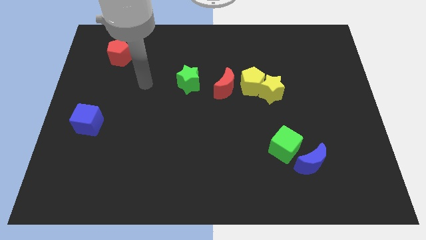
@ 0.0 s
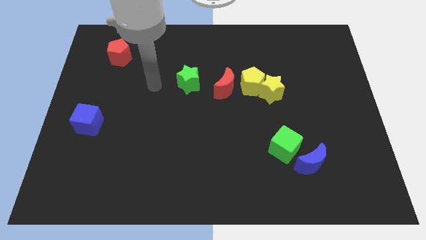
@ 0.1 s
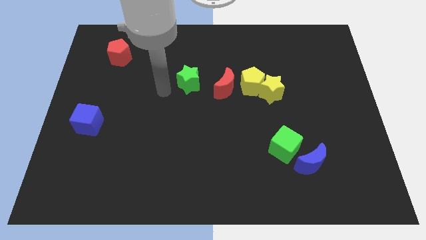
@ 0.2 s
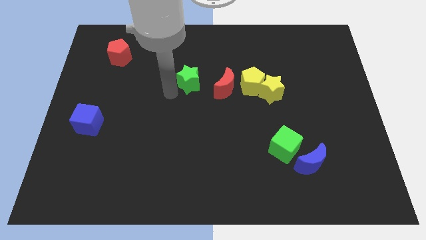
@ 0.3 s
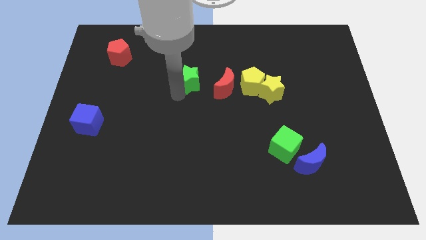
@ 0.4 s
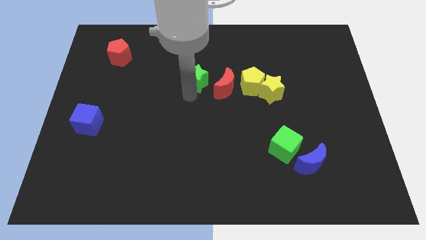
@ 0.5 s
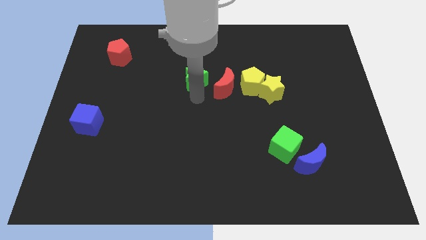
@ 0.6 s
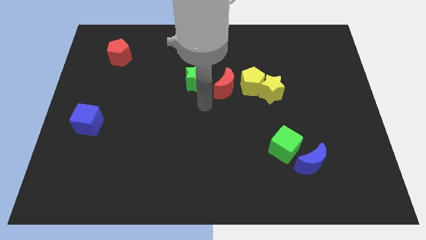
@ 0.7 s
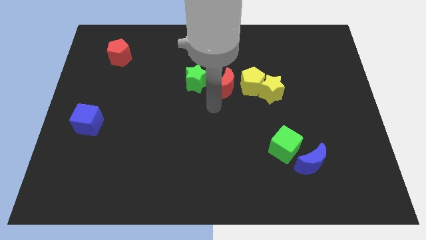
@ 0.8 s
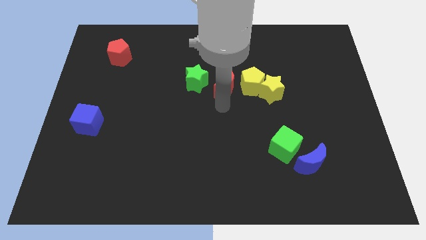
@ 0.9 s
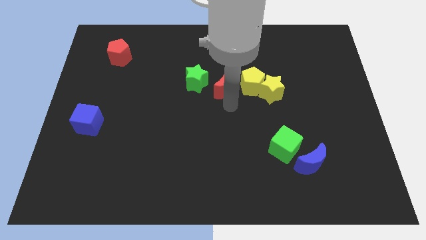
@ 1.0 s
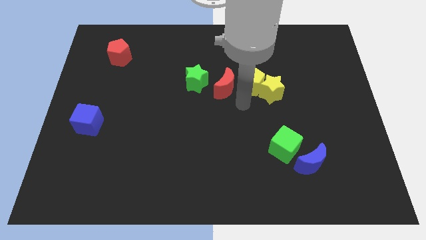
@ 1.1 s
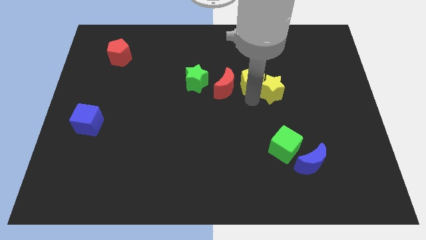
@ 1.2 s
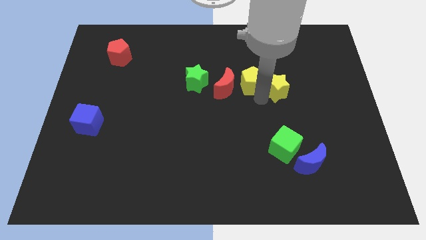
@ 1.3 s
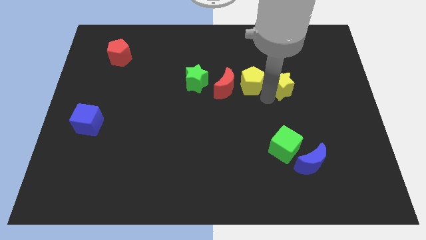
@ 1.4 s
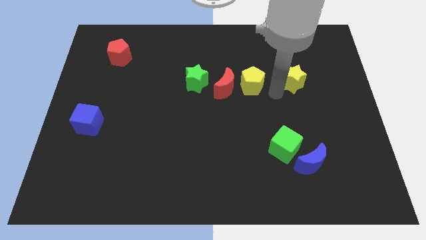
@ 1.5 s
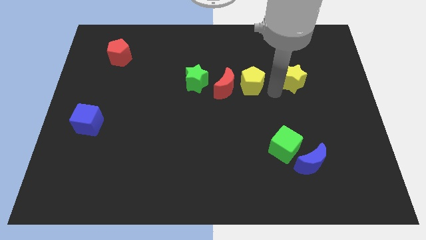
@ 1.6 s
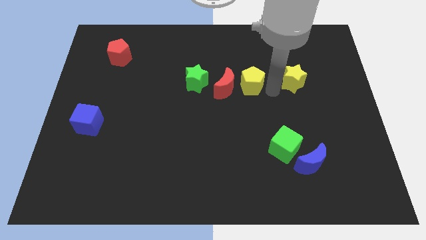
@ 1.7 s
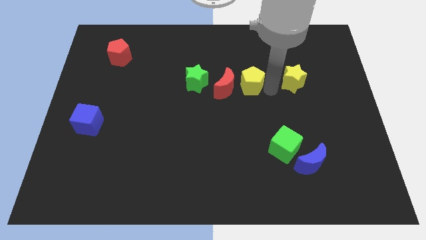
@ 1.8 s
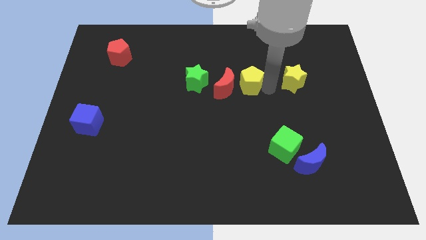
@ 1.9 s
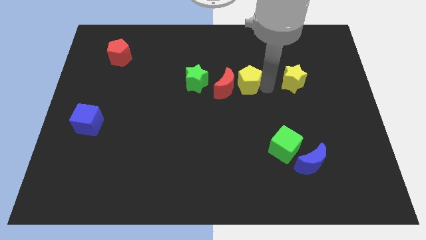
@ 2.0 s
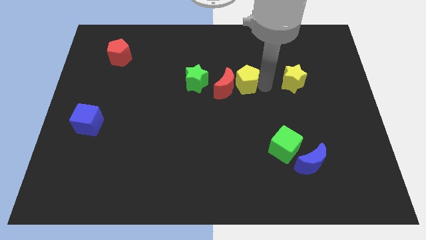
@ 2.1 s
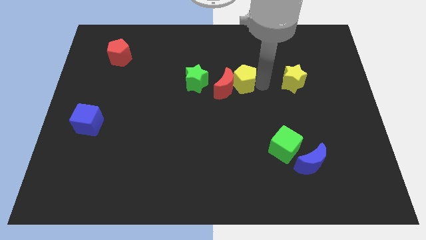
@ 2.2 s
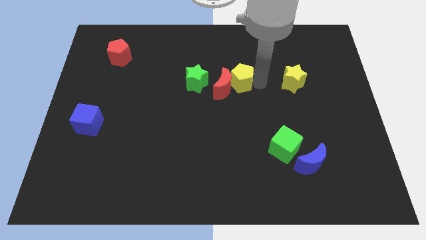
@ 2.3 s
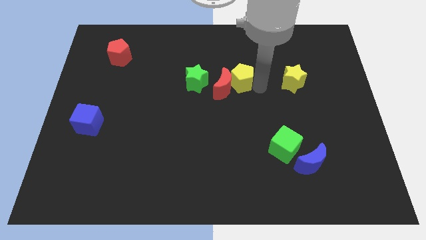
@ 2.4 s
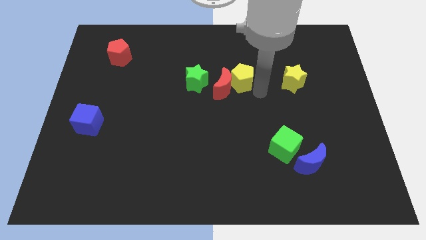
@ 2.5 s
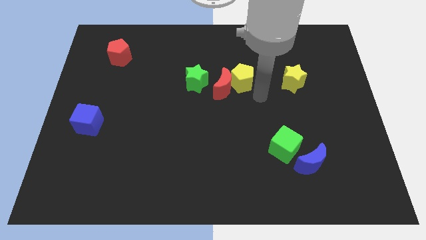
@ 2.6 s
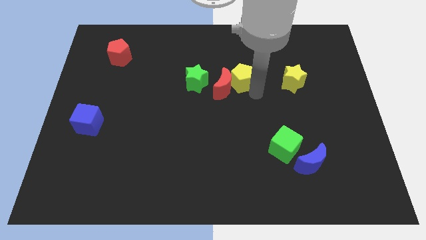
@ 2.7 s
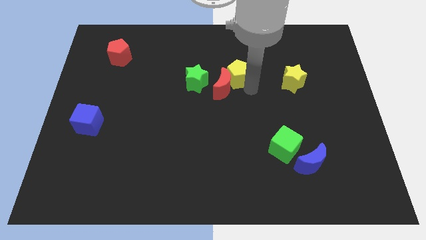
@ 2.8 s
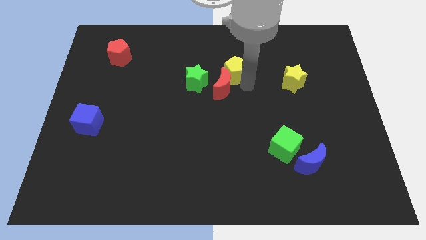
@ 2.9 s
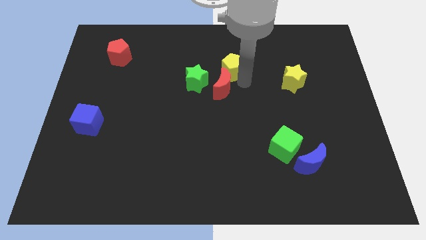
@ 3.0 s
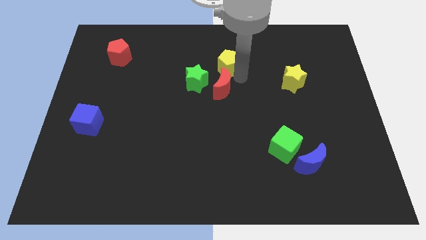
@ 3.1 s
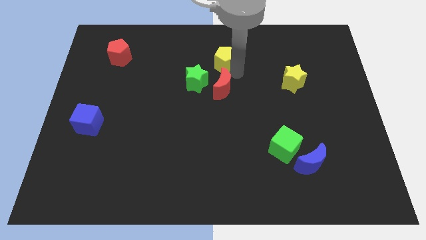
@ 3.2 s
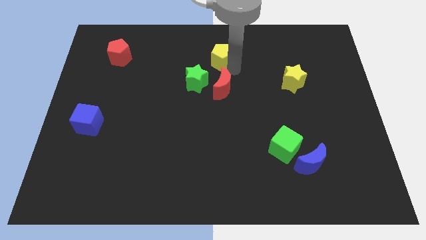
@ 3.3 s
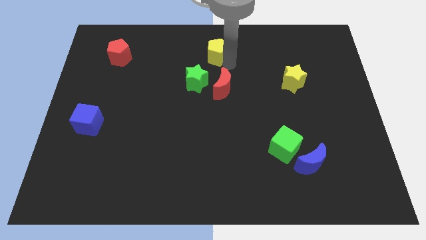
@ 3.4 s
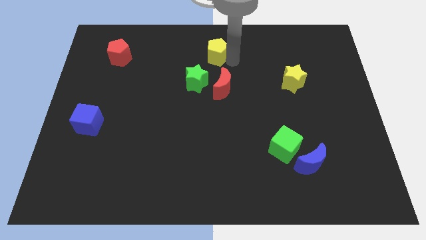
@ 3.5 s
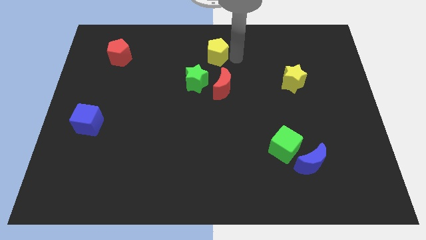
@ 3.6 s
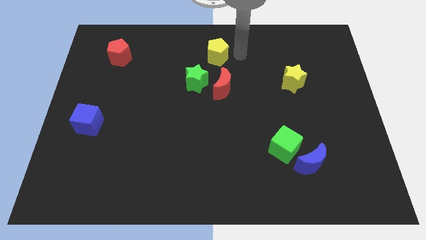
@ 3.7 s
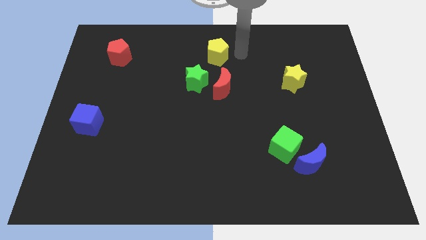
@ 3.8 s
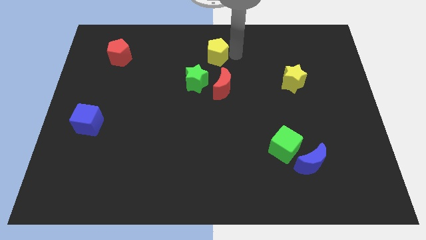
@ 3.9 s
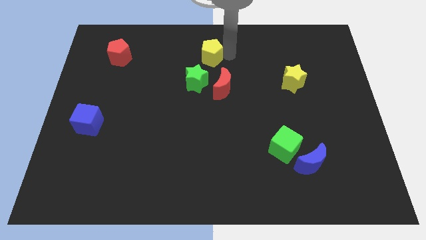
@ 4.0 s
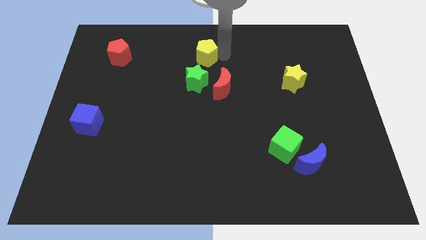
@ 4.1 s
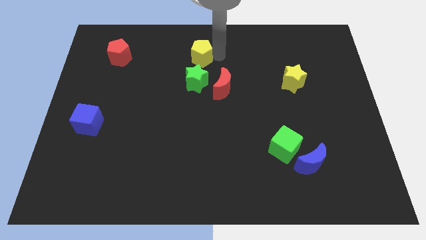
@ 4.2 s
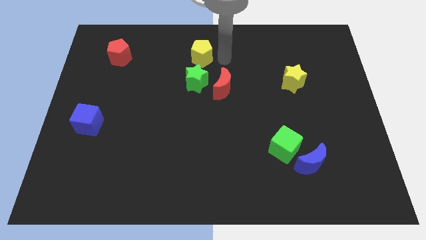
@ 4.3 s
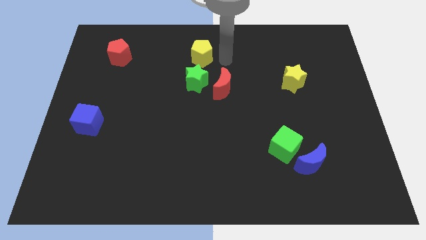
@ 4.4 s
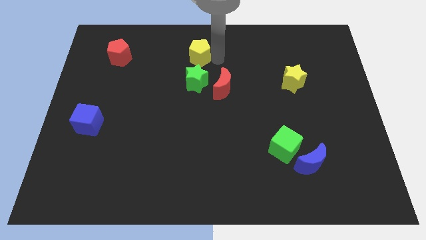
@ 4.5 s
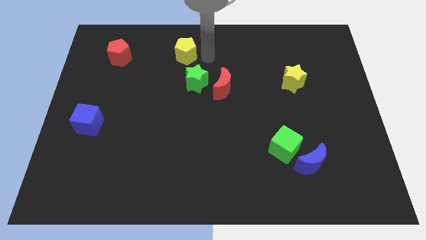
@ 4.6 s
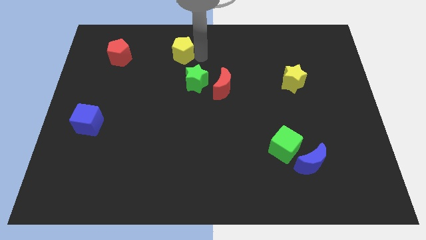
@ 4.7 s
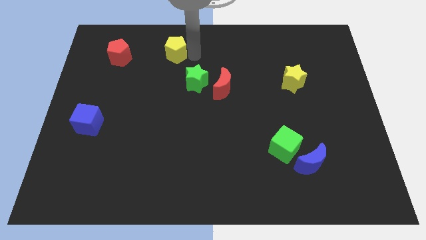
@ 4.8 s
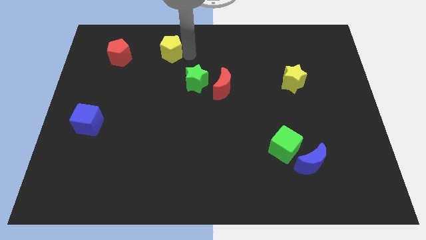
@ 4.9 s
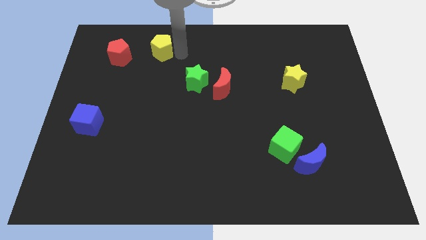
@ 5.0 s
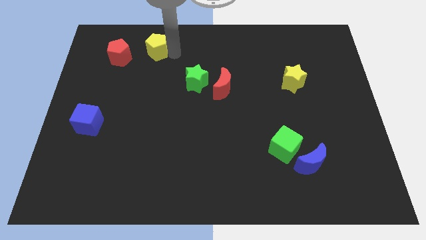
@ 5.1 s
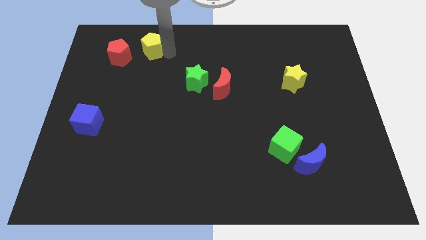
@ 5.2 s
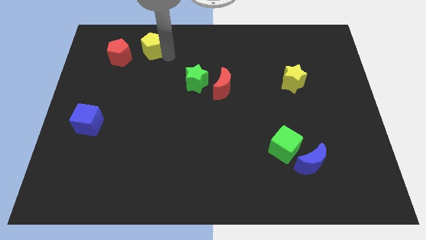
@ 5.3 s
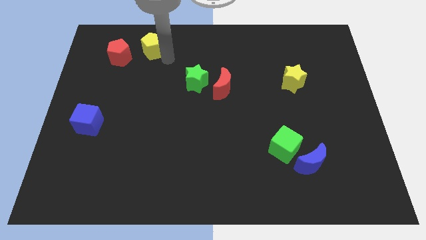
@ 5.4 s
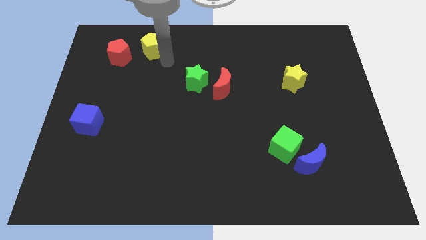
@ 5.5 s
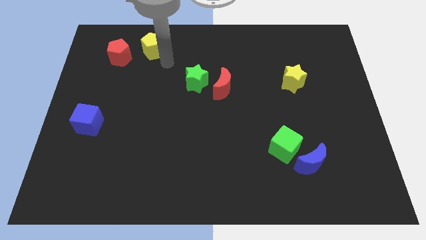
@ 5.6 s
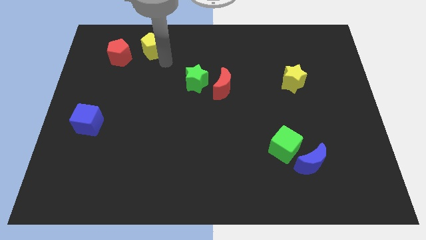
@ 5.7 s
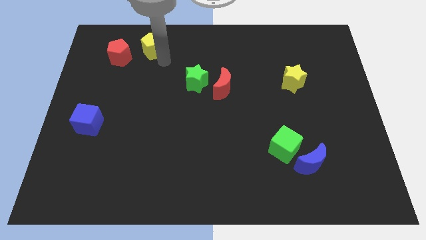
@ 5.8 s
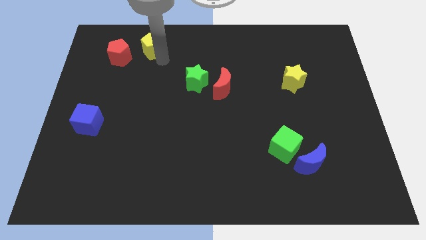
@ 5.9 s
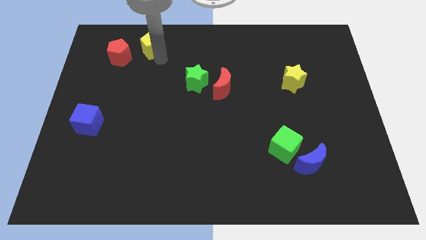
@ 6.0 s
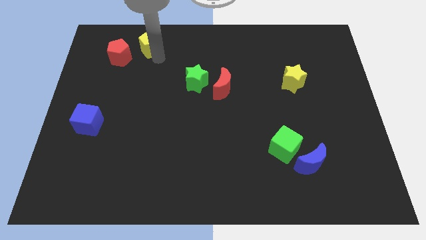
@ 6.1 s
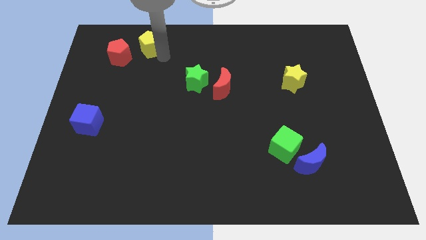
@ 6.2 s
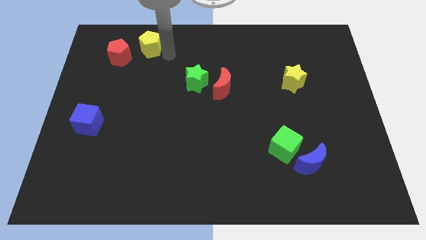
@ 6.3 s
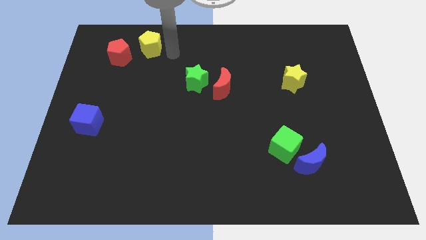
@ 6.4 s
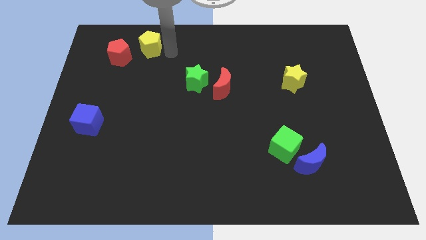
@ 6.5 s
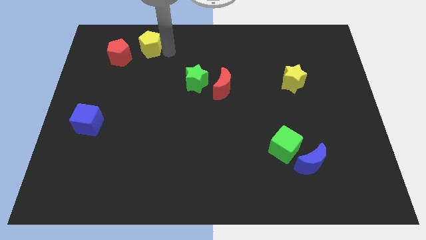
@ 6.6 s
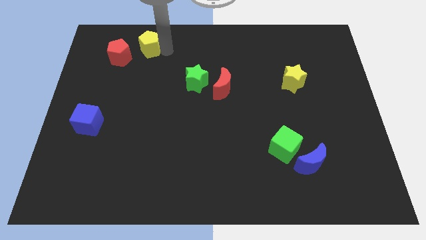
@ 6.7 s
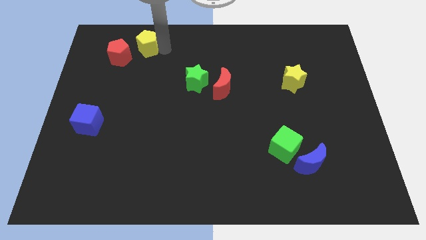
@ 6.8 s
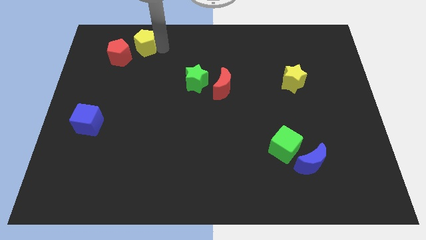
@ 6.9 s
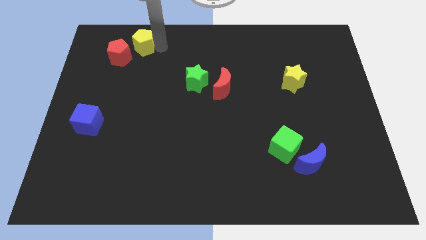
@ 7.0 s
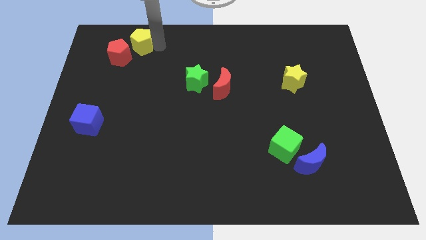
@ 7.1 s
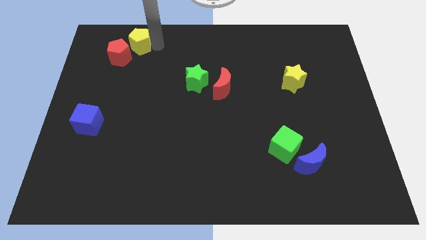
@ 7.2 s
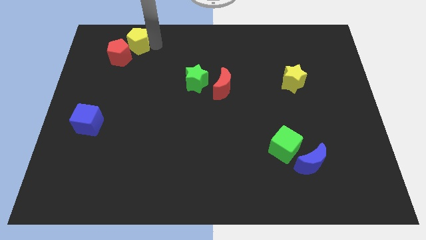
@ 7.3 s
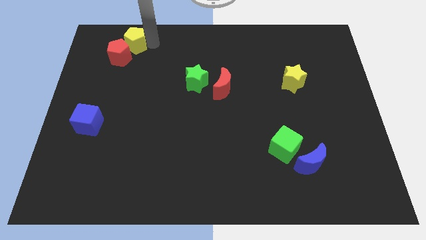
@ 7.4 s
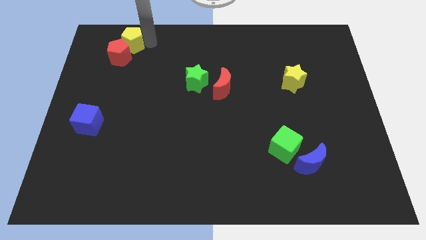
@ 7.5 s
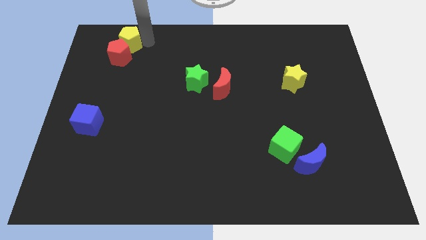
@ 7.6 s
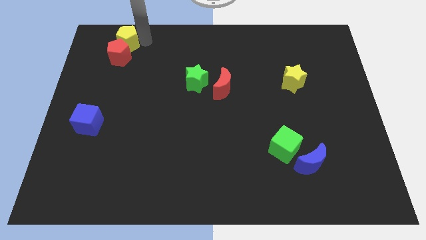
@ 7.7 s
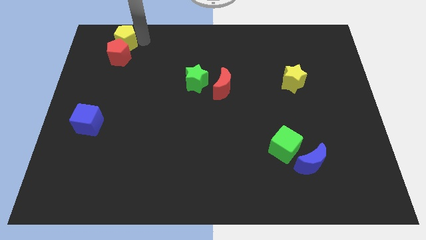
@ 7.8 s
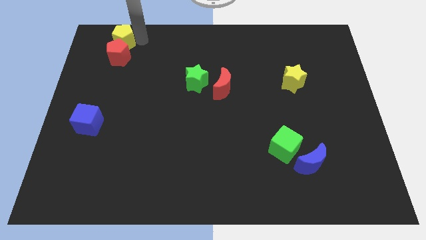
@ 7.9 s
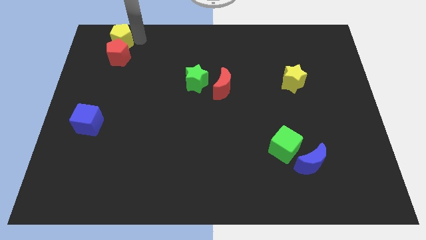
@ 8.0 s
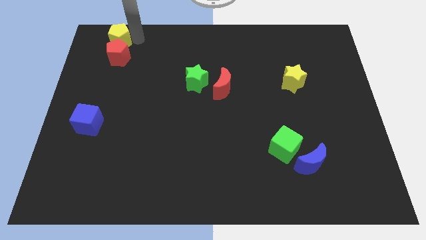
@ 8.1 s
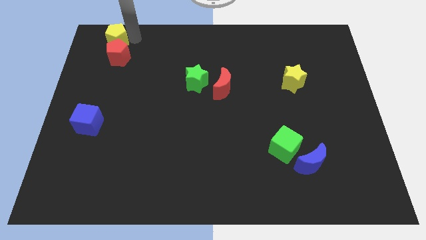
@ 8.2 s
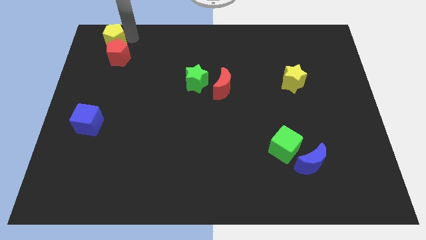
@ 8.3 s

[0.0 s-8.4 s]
put the yellow pentagon to the top left
